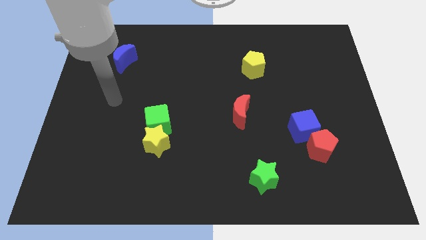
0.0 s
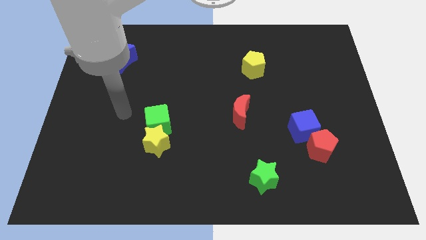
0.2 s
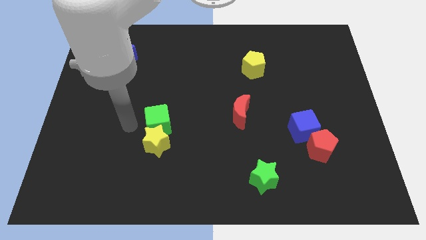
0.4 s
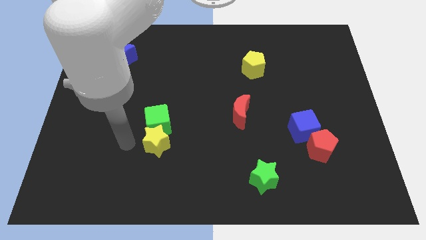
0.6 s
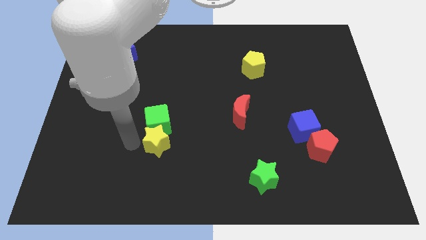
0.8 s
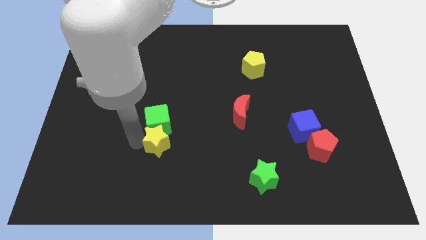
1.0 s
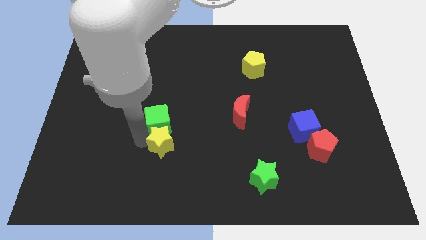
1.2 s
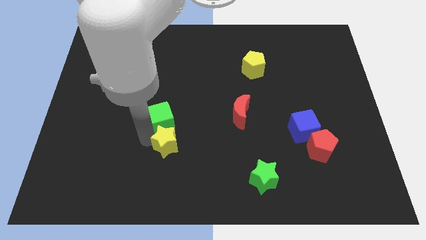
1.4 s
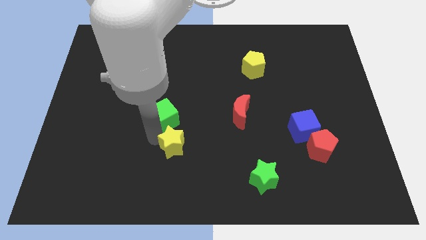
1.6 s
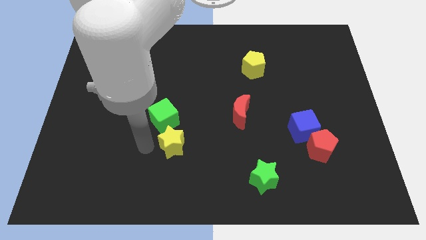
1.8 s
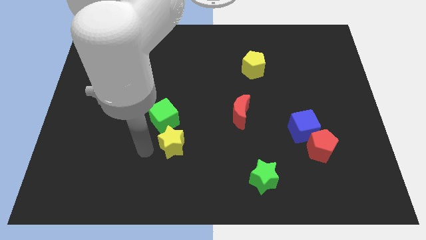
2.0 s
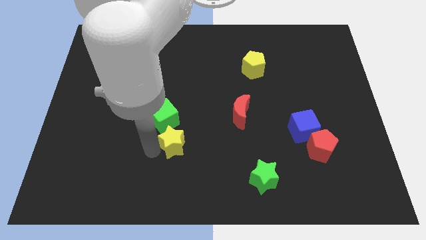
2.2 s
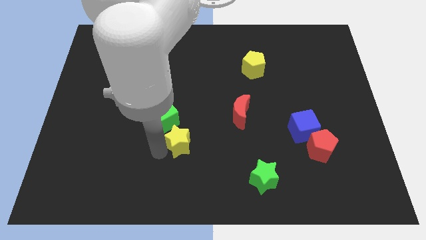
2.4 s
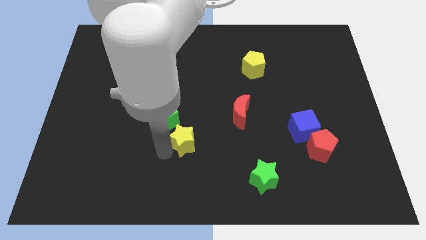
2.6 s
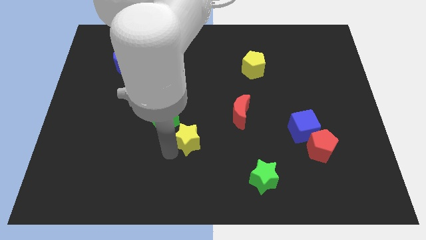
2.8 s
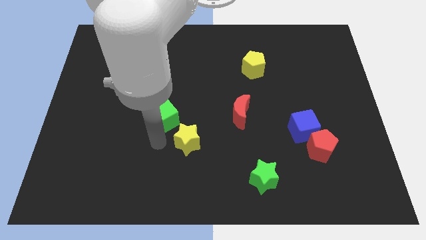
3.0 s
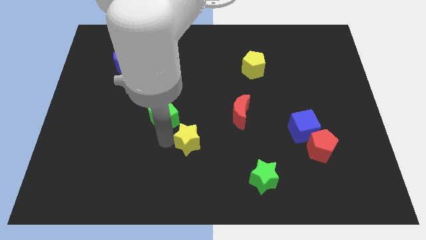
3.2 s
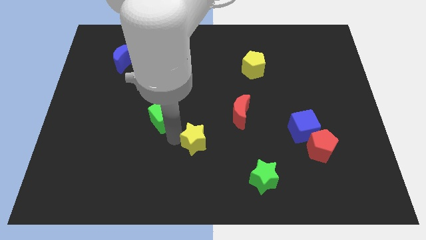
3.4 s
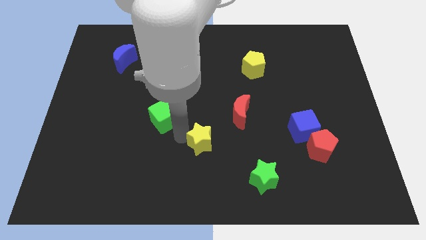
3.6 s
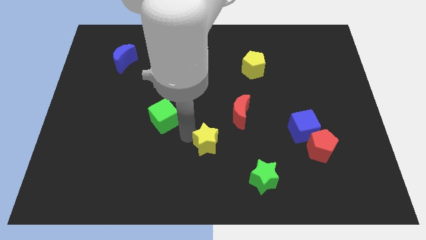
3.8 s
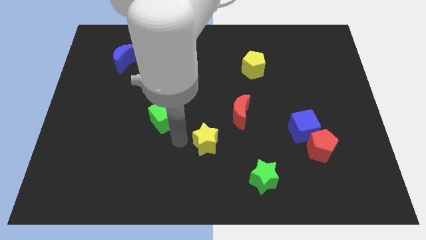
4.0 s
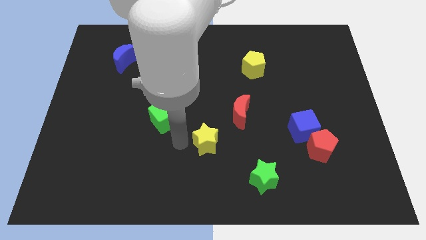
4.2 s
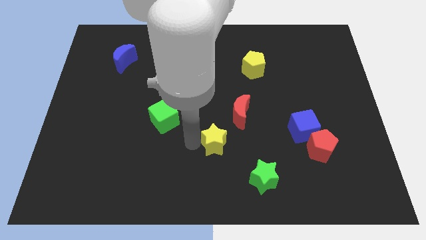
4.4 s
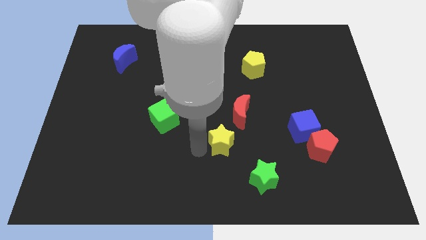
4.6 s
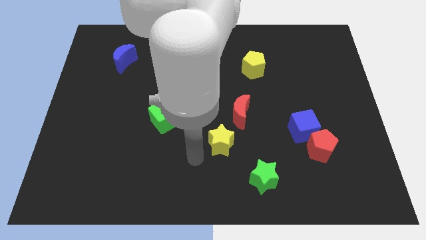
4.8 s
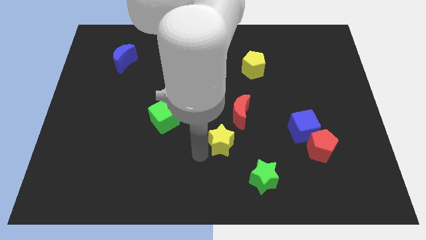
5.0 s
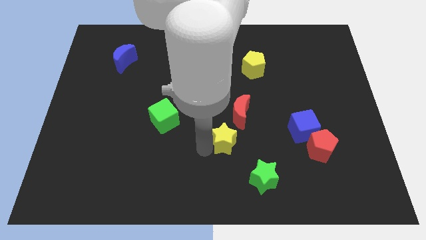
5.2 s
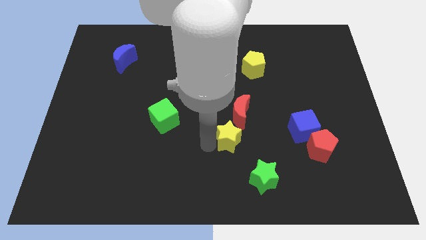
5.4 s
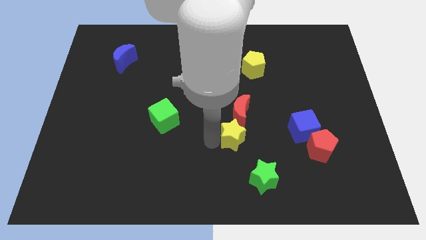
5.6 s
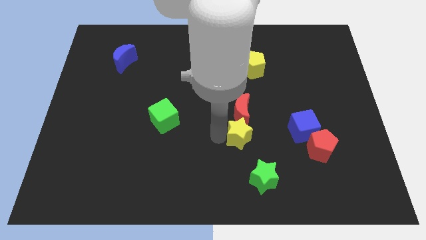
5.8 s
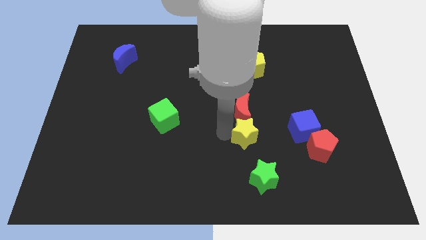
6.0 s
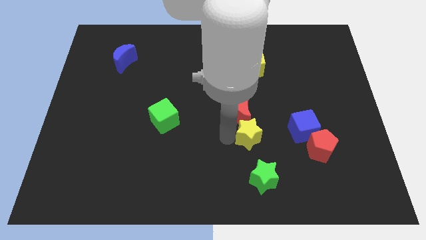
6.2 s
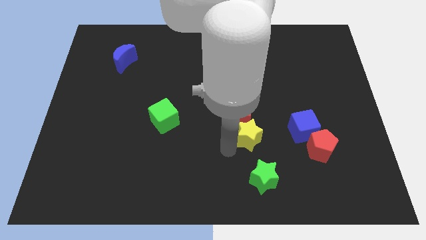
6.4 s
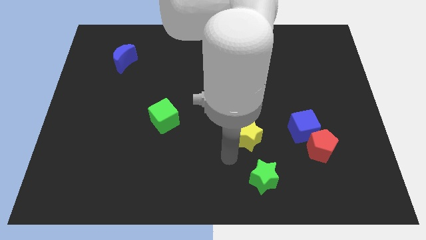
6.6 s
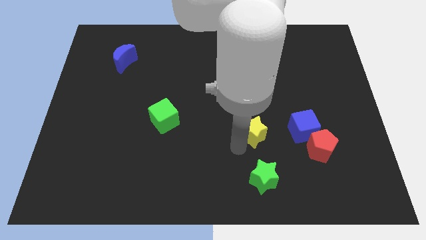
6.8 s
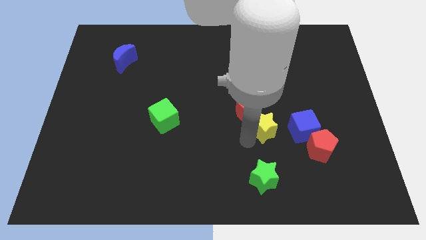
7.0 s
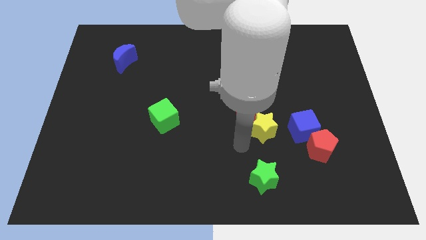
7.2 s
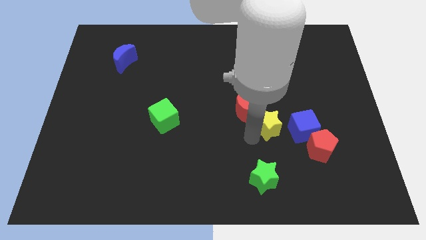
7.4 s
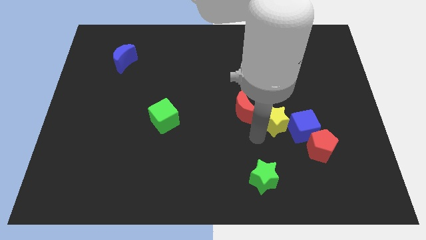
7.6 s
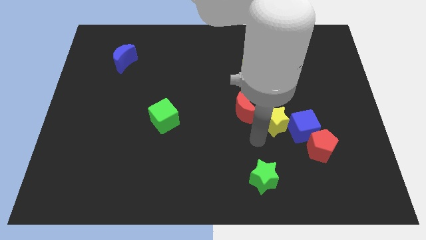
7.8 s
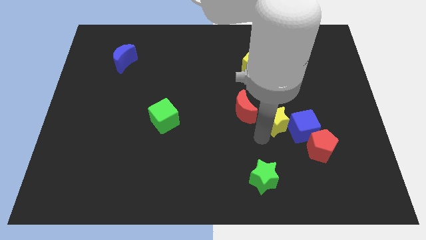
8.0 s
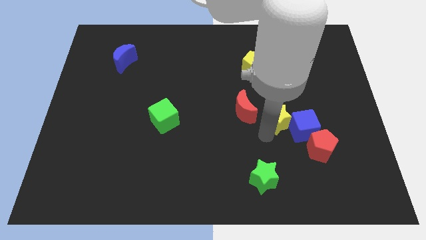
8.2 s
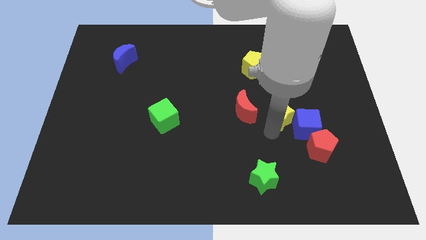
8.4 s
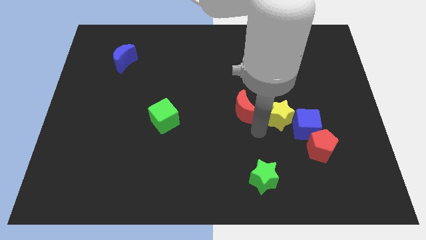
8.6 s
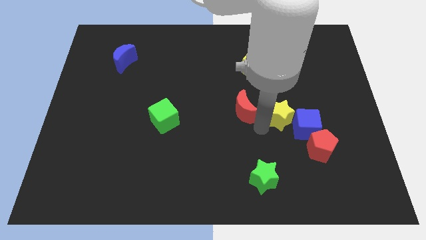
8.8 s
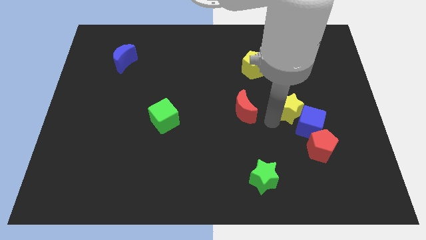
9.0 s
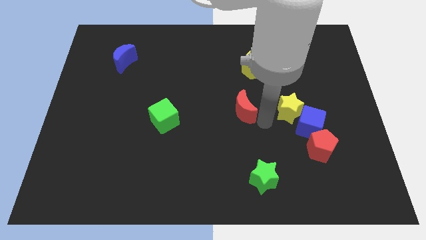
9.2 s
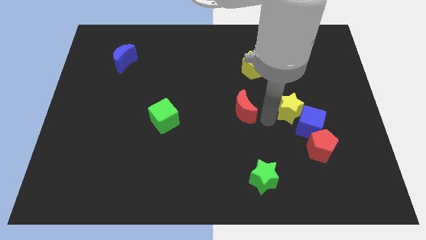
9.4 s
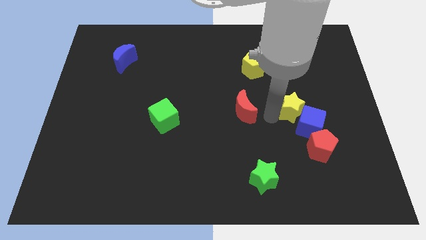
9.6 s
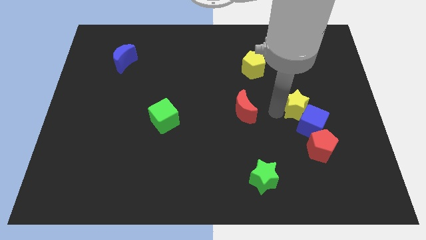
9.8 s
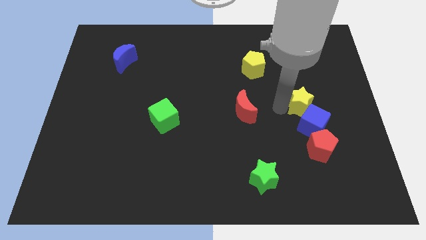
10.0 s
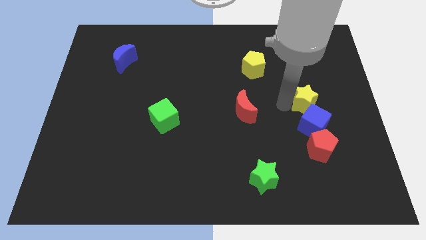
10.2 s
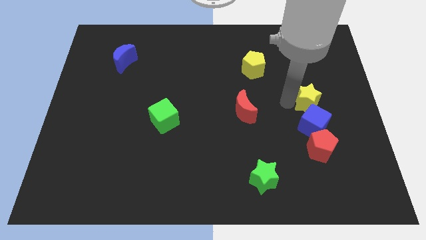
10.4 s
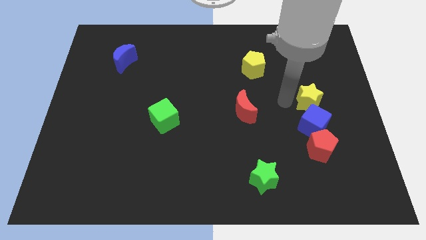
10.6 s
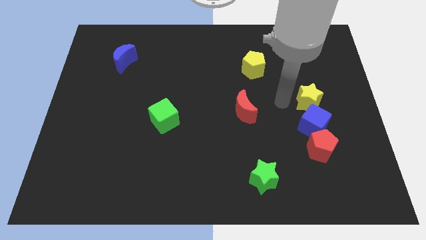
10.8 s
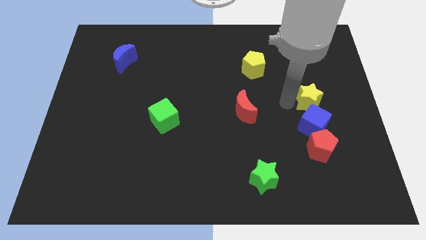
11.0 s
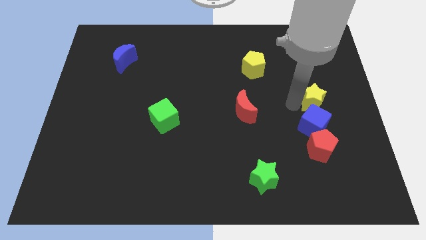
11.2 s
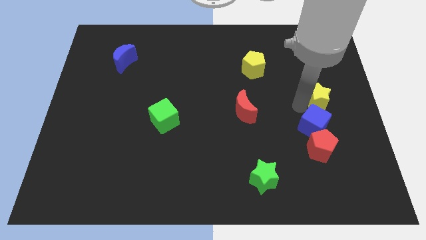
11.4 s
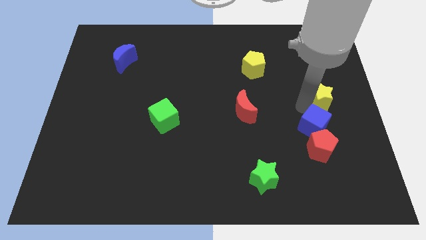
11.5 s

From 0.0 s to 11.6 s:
put the yellow star to the right side of the board
